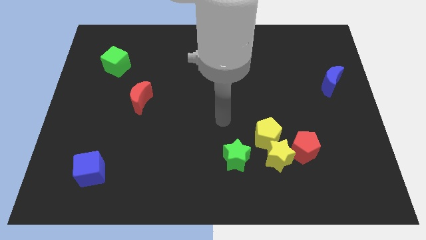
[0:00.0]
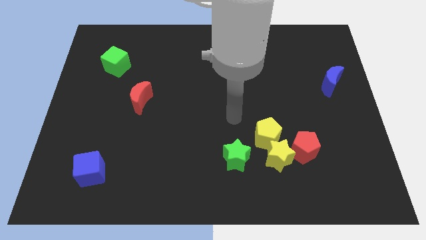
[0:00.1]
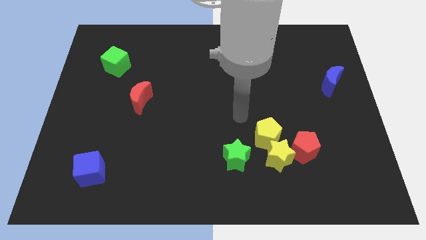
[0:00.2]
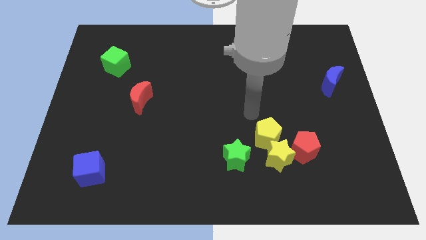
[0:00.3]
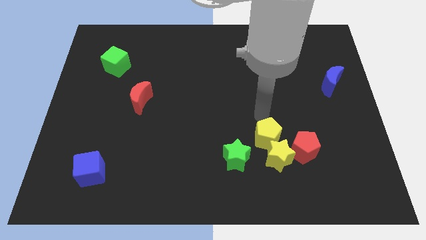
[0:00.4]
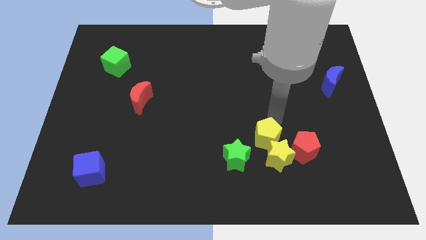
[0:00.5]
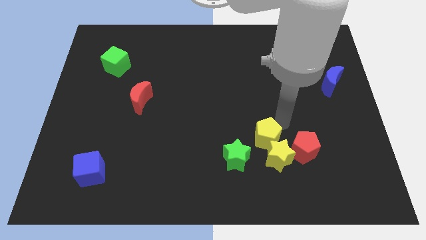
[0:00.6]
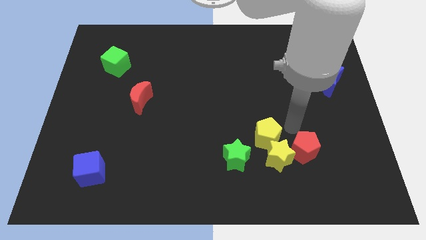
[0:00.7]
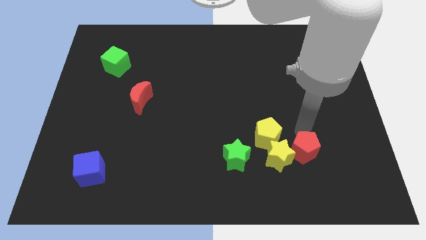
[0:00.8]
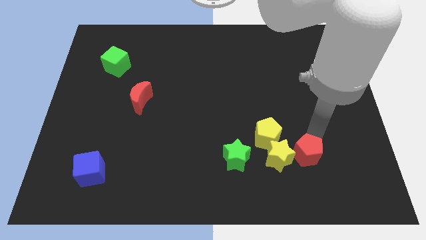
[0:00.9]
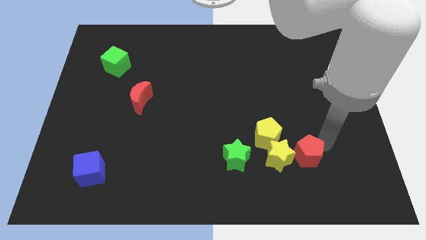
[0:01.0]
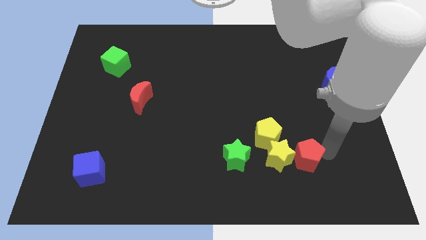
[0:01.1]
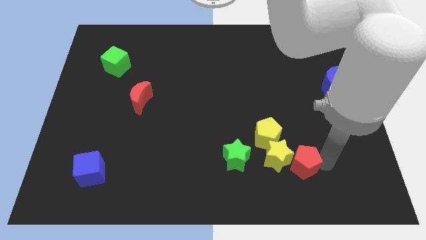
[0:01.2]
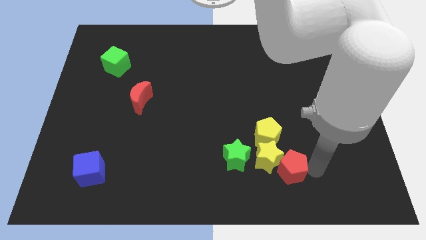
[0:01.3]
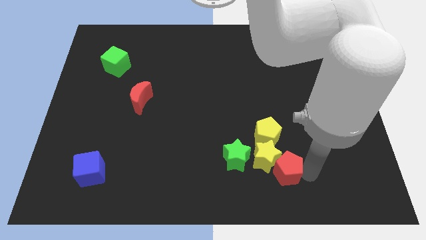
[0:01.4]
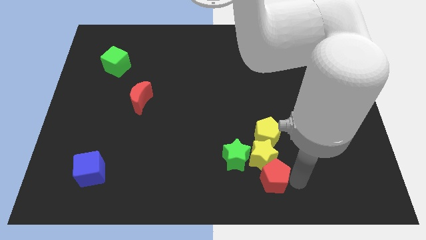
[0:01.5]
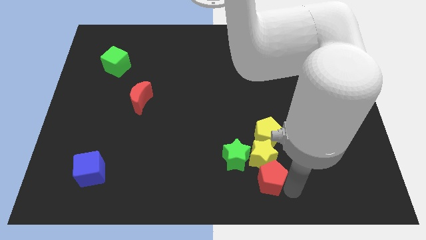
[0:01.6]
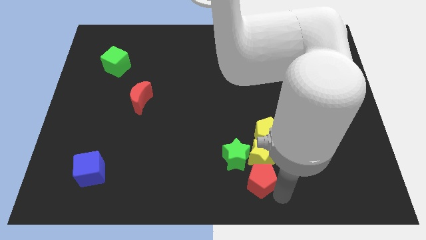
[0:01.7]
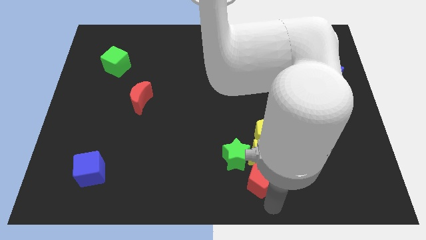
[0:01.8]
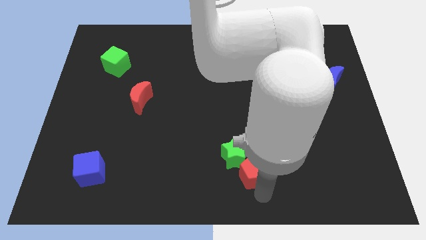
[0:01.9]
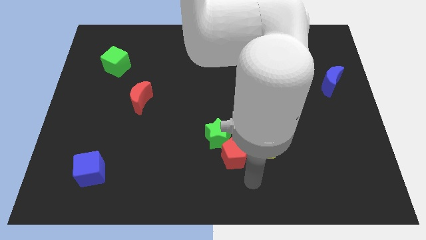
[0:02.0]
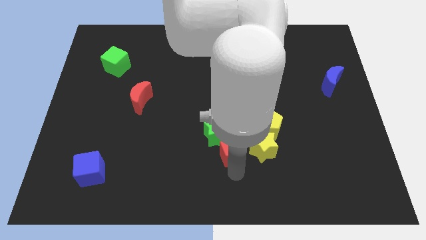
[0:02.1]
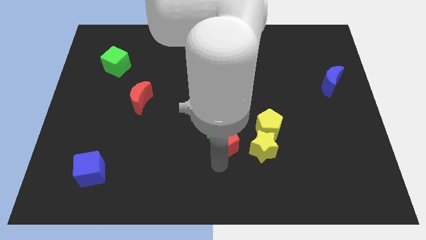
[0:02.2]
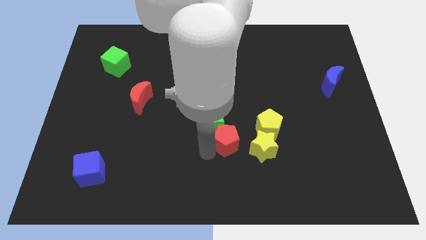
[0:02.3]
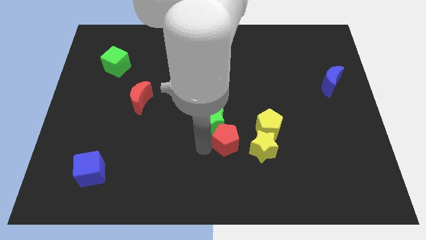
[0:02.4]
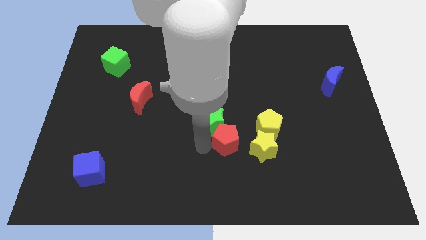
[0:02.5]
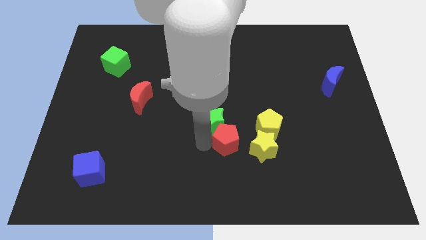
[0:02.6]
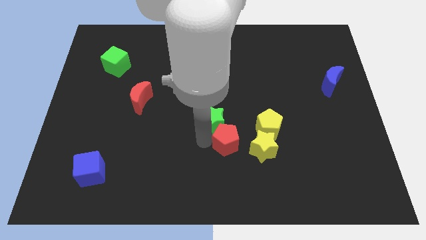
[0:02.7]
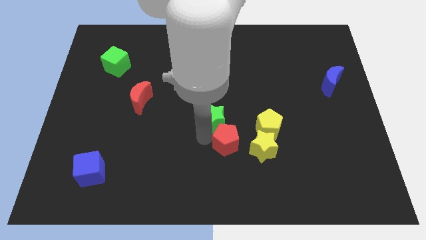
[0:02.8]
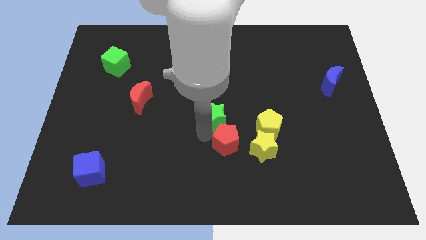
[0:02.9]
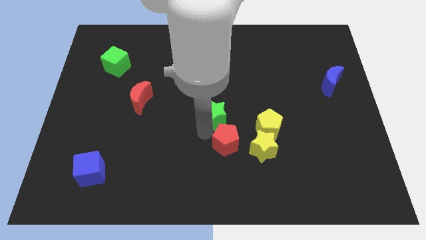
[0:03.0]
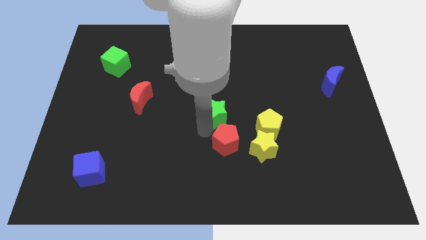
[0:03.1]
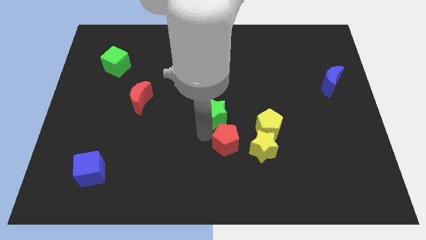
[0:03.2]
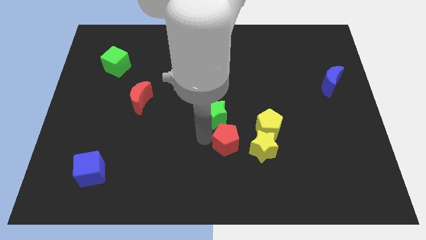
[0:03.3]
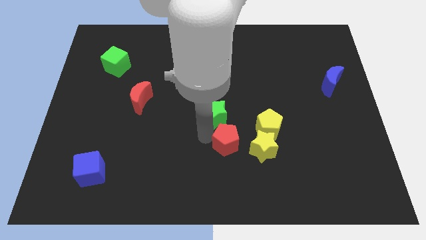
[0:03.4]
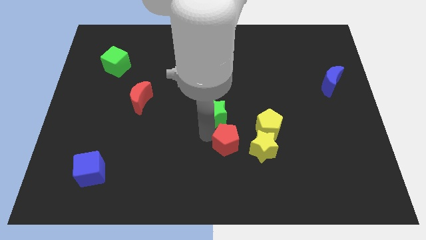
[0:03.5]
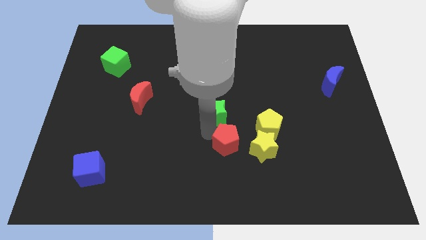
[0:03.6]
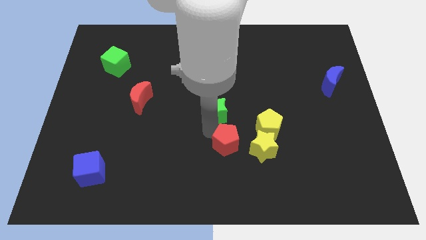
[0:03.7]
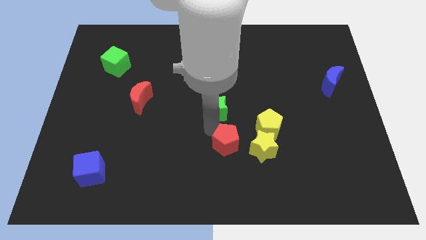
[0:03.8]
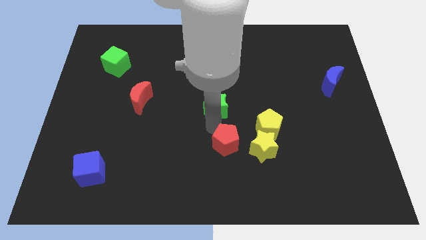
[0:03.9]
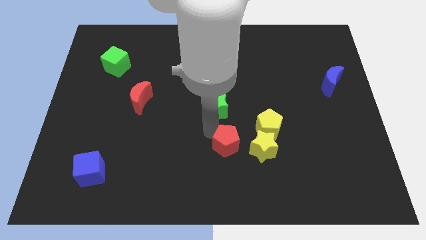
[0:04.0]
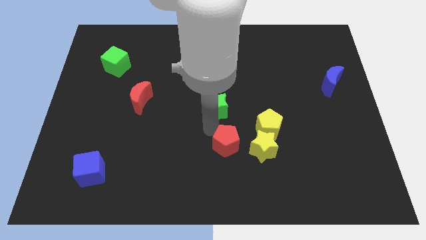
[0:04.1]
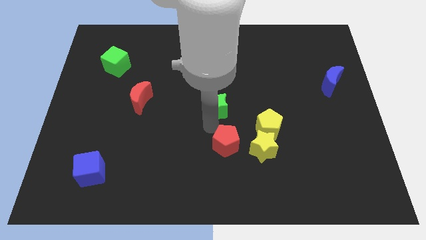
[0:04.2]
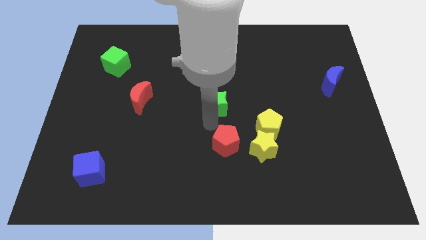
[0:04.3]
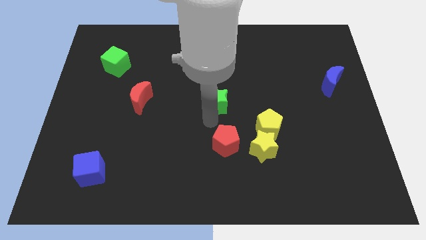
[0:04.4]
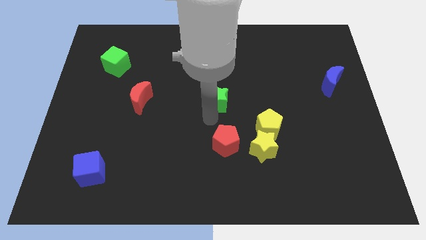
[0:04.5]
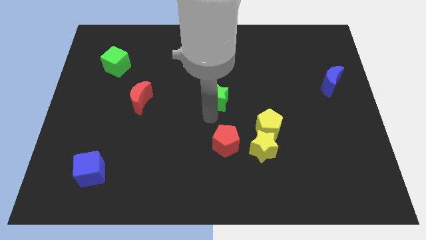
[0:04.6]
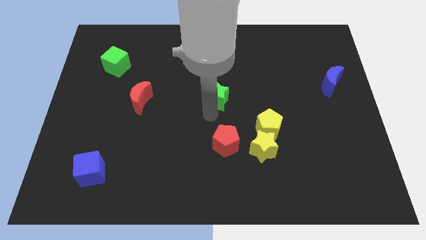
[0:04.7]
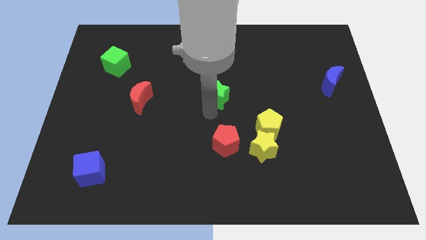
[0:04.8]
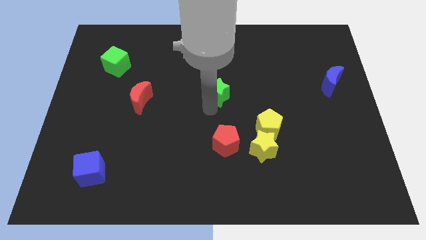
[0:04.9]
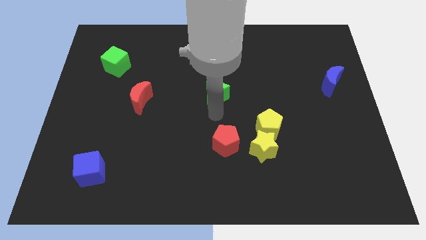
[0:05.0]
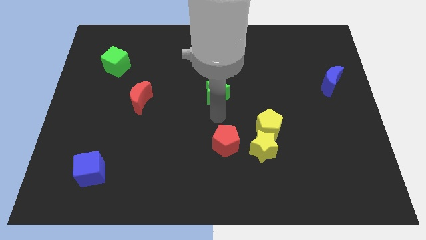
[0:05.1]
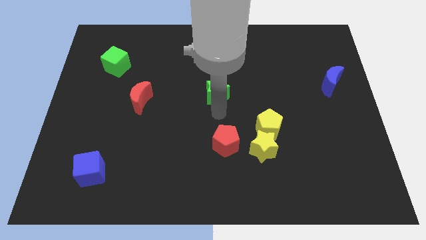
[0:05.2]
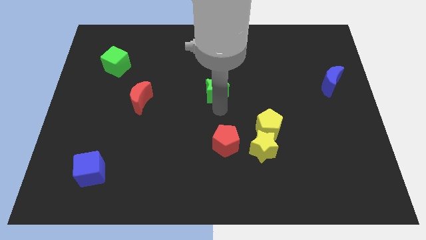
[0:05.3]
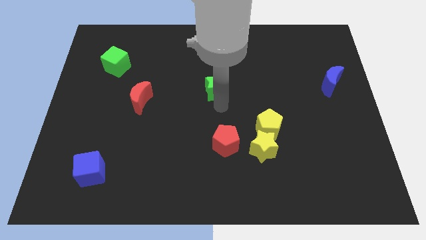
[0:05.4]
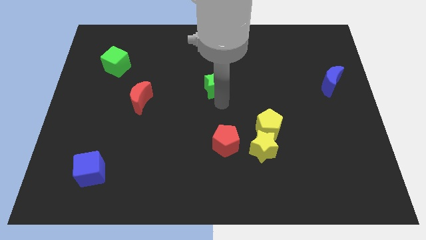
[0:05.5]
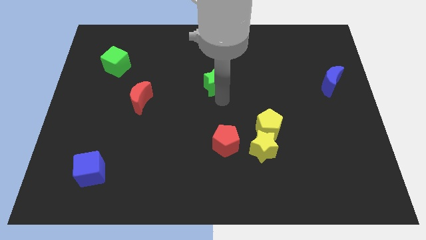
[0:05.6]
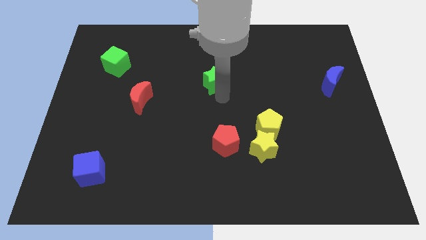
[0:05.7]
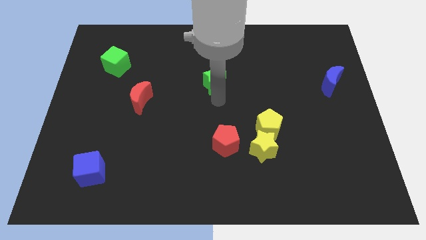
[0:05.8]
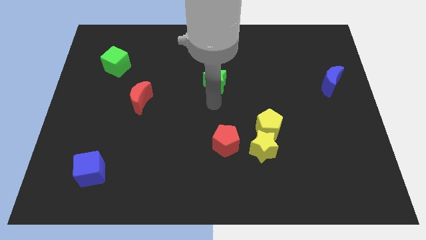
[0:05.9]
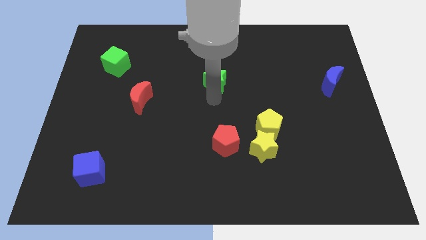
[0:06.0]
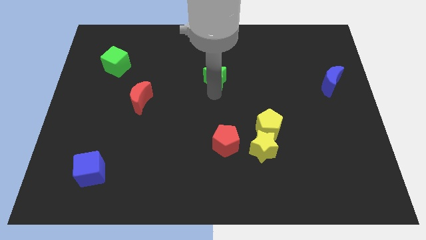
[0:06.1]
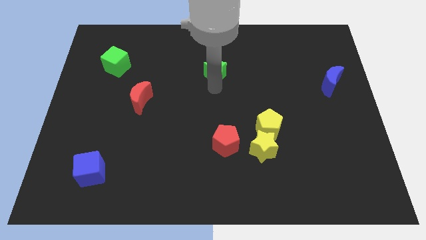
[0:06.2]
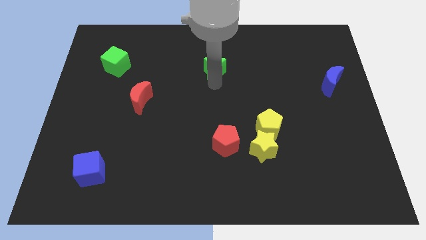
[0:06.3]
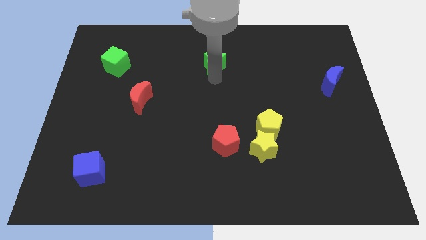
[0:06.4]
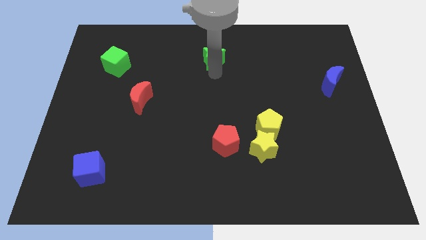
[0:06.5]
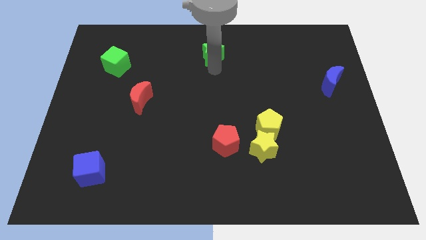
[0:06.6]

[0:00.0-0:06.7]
put the green star to the top

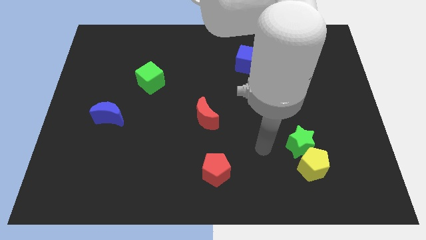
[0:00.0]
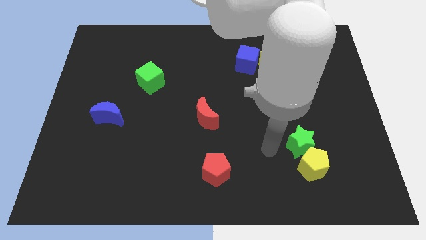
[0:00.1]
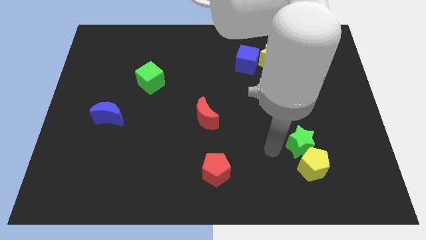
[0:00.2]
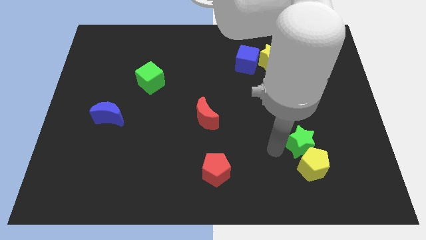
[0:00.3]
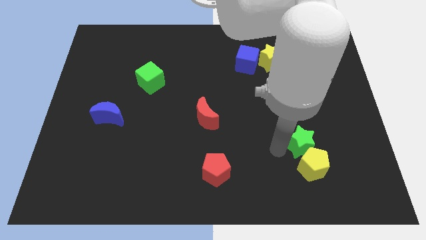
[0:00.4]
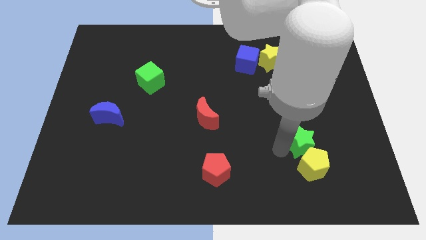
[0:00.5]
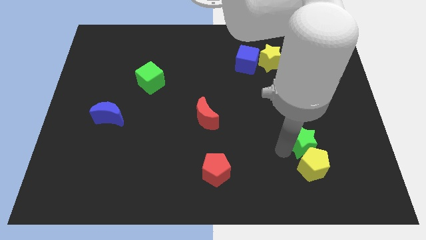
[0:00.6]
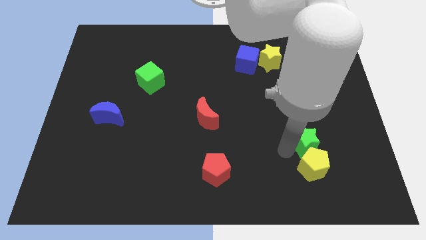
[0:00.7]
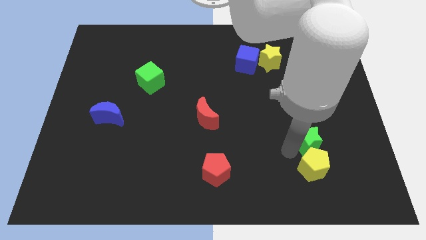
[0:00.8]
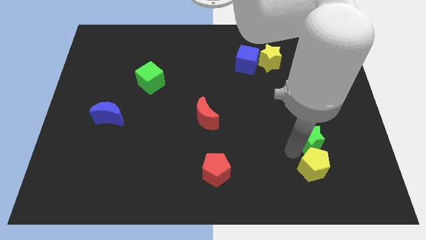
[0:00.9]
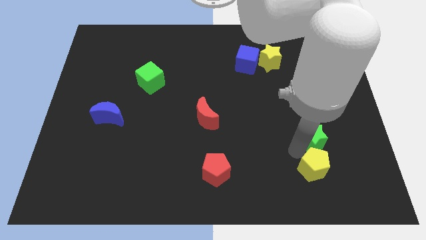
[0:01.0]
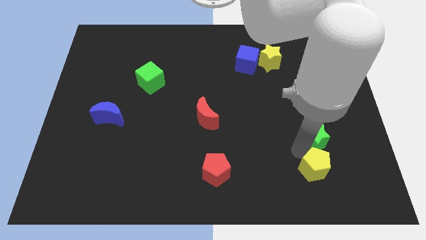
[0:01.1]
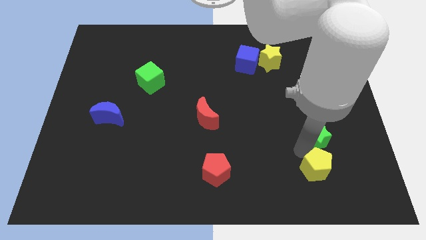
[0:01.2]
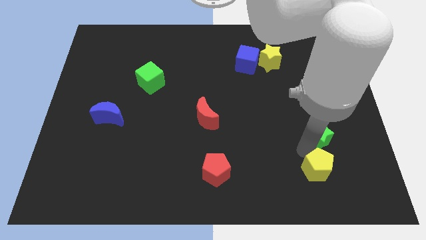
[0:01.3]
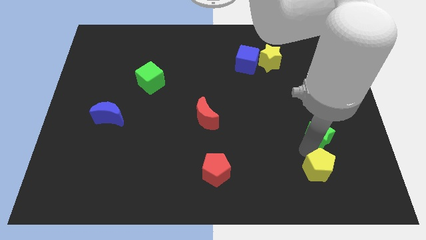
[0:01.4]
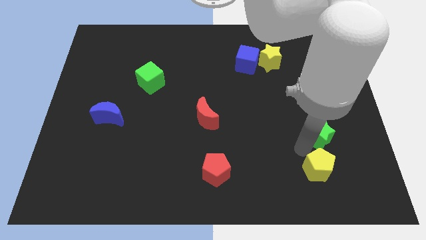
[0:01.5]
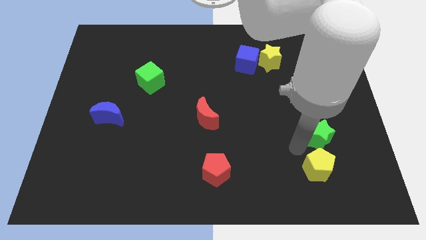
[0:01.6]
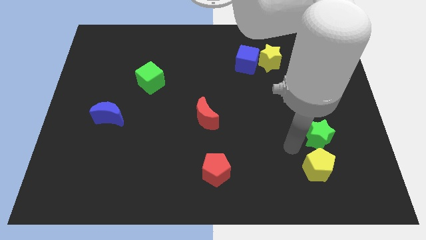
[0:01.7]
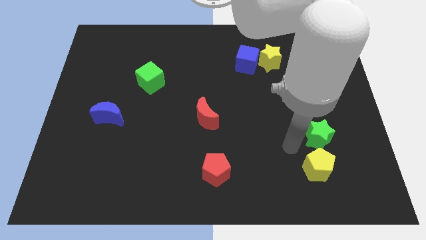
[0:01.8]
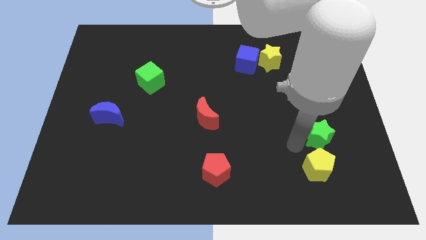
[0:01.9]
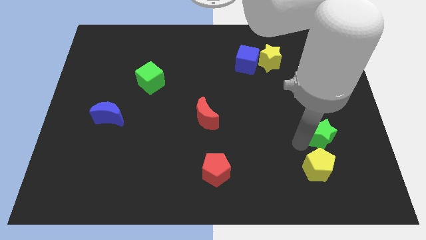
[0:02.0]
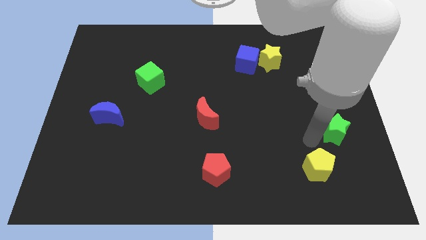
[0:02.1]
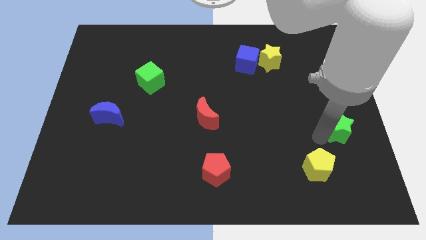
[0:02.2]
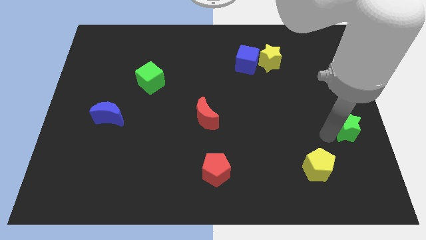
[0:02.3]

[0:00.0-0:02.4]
move the green star to the right side
